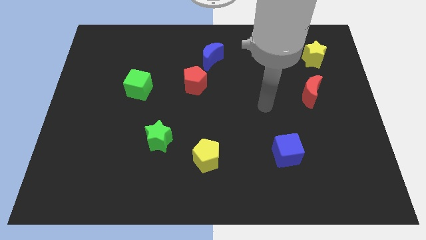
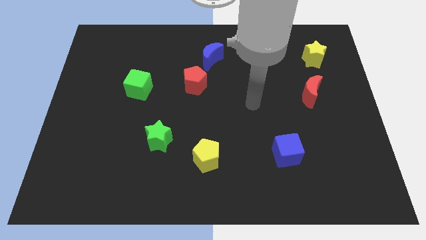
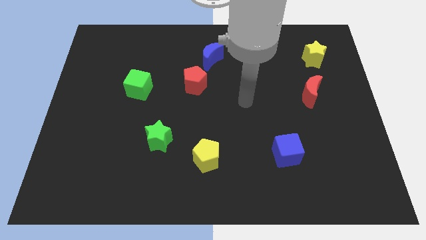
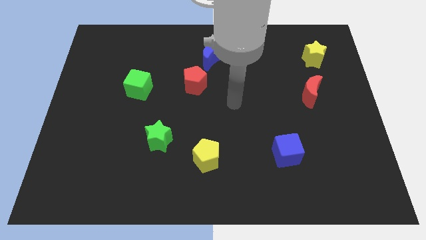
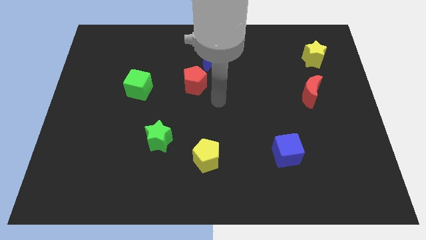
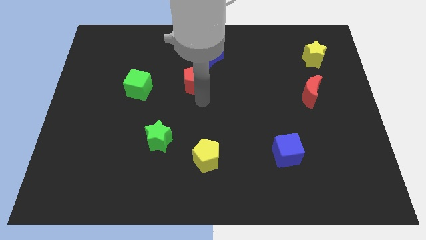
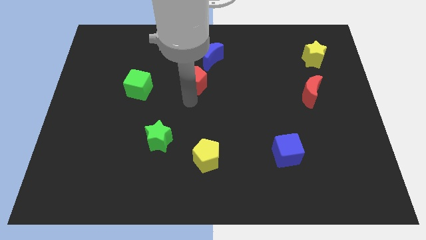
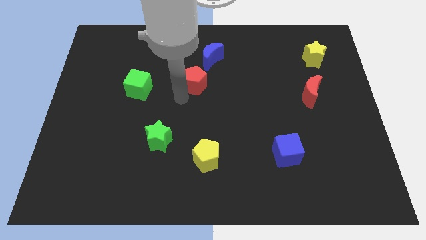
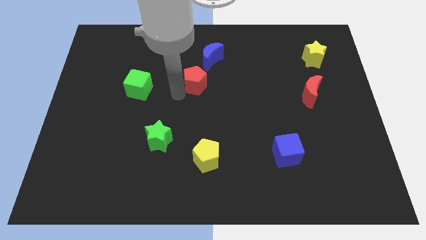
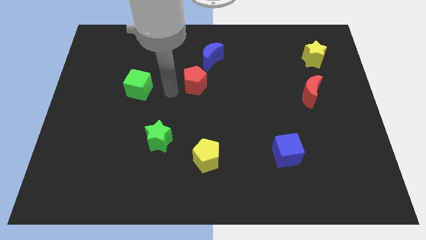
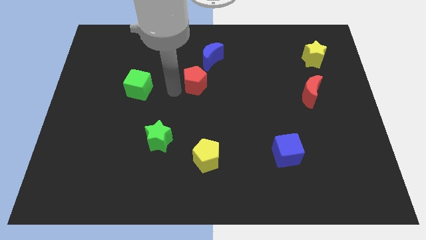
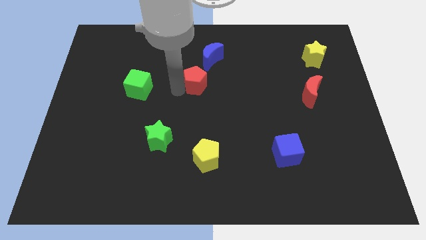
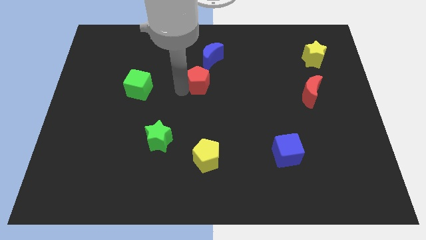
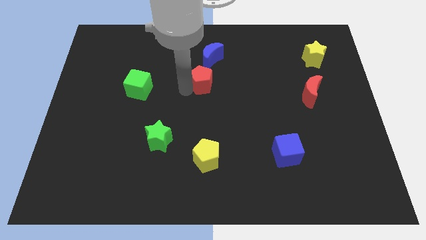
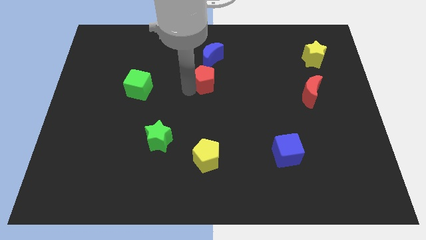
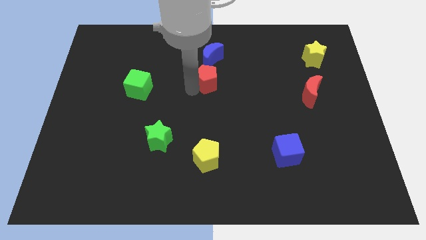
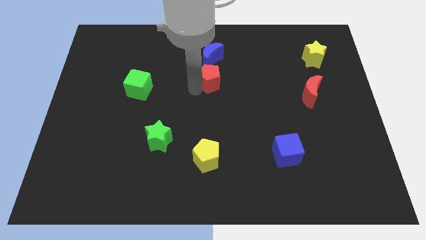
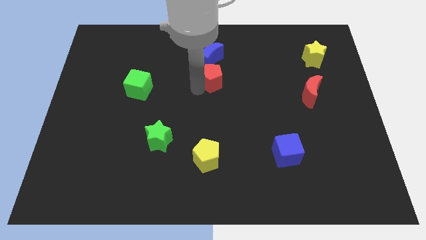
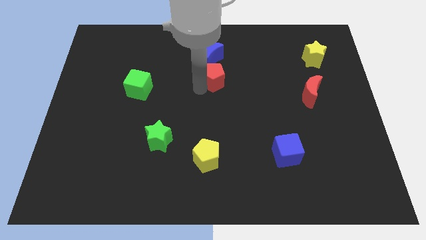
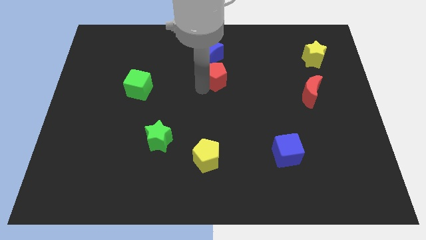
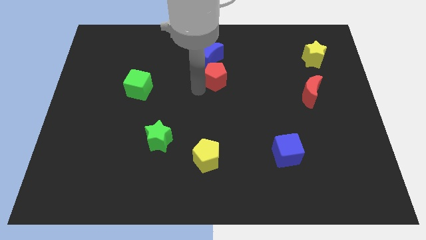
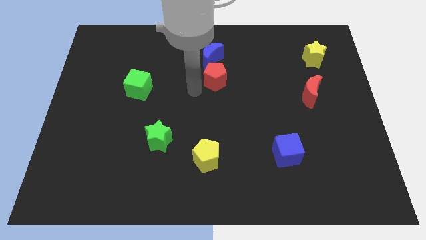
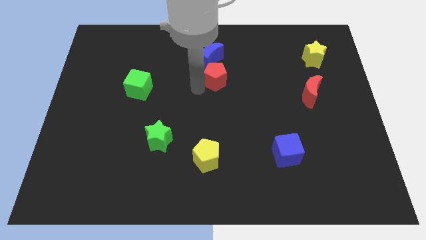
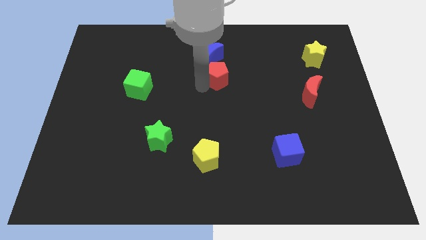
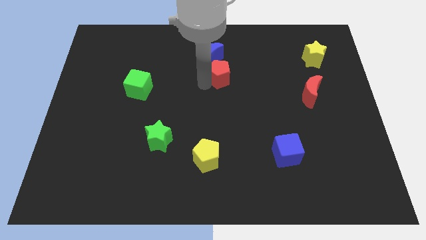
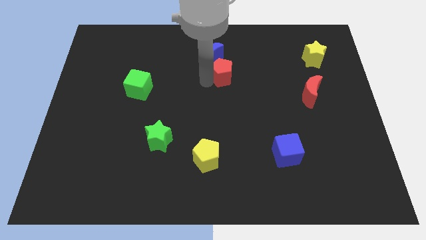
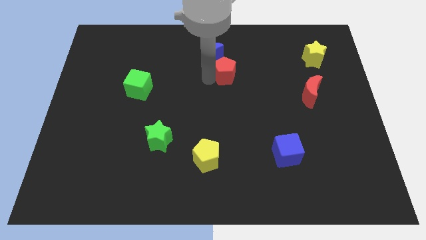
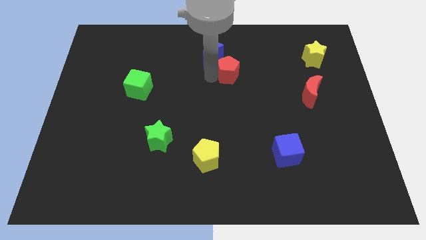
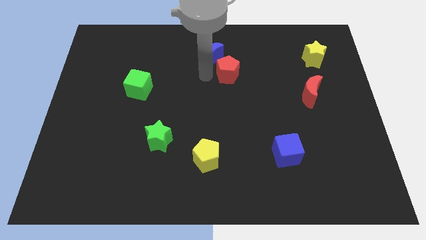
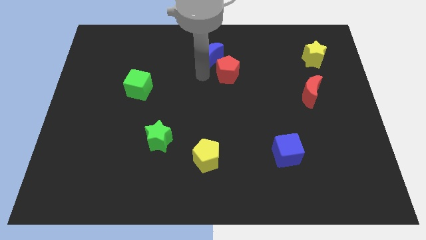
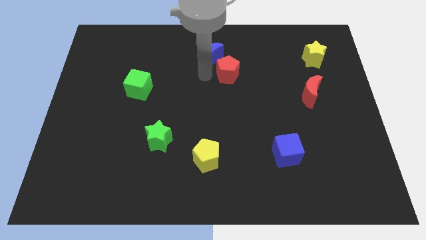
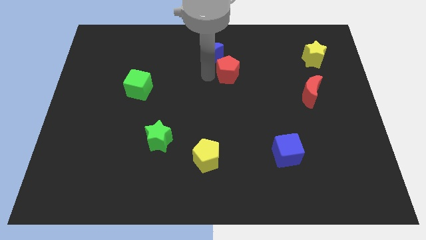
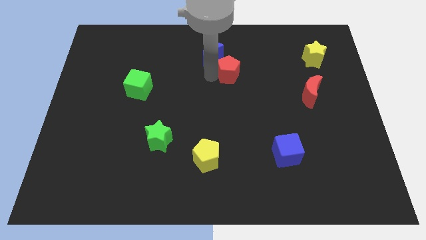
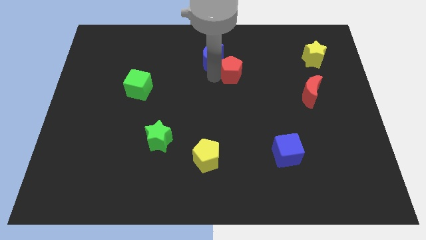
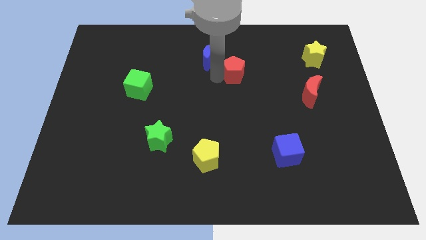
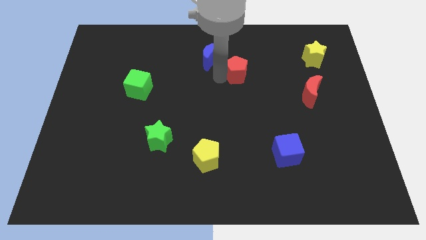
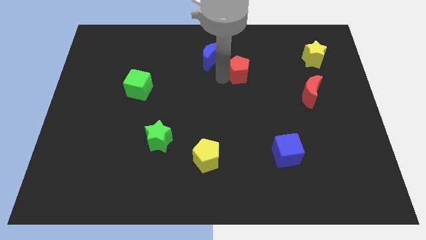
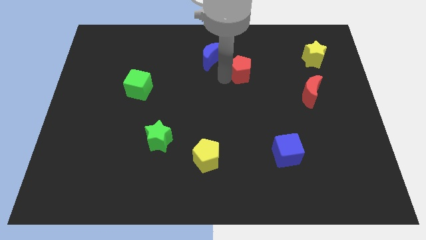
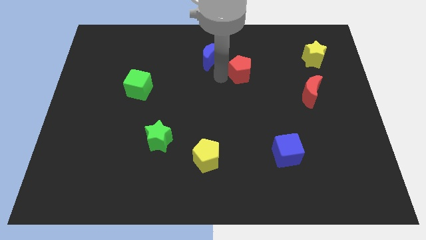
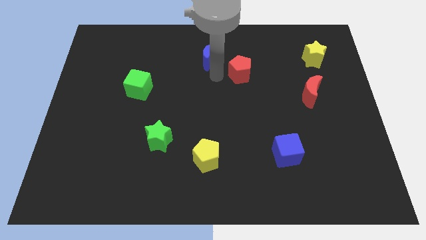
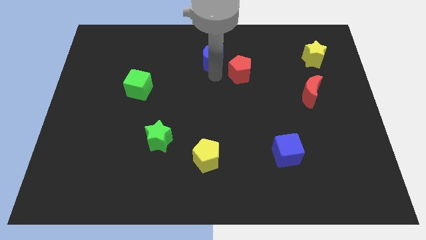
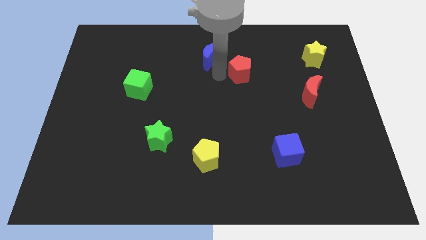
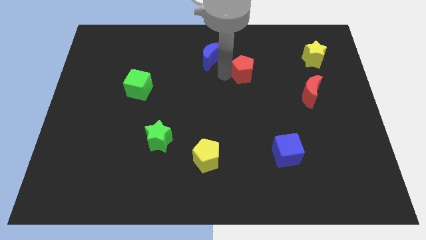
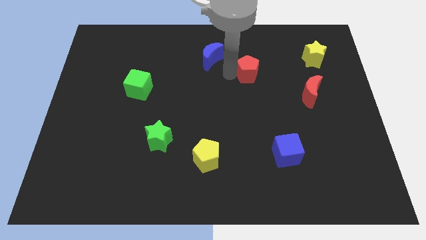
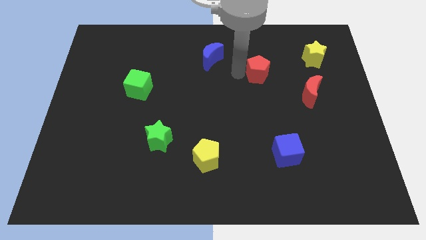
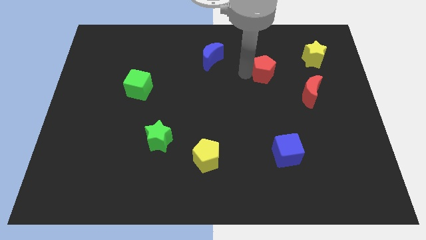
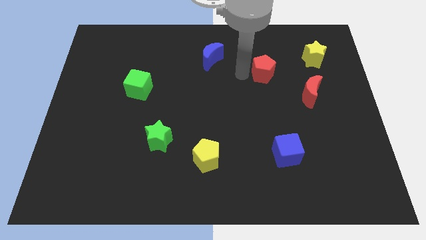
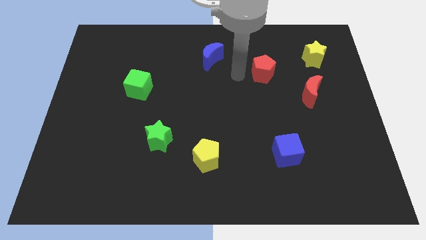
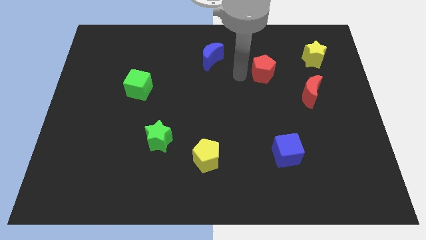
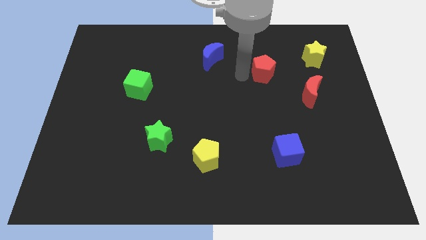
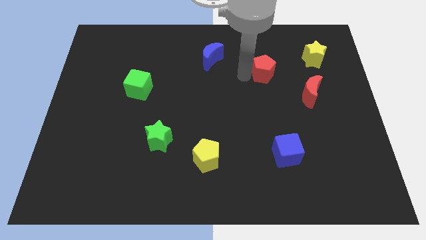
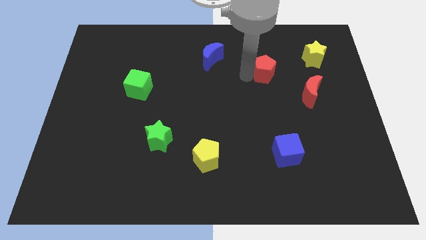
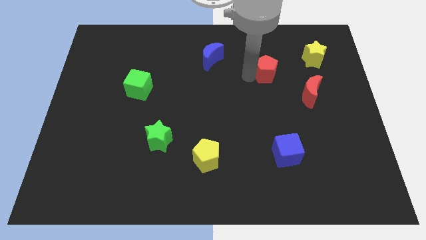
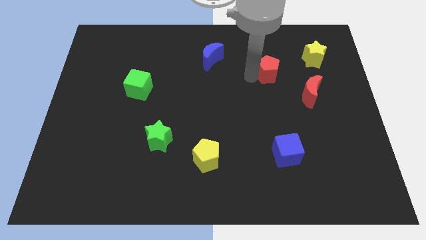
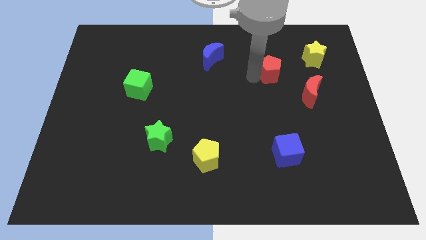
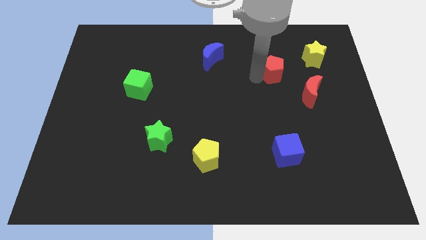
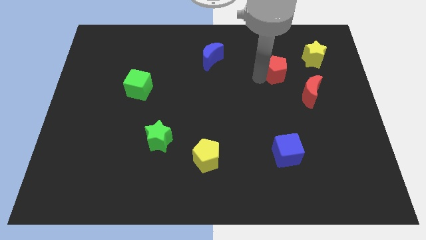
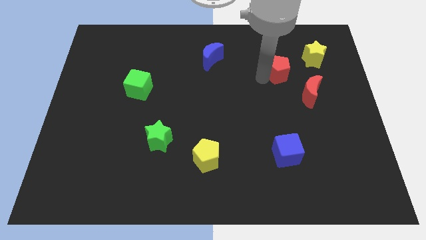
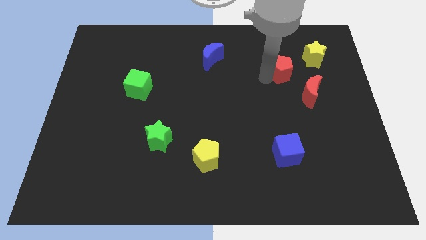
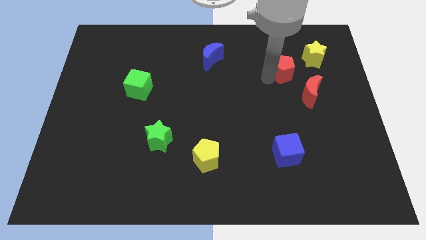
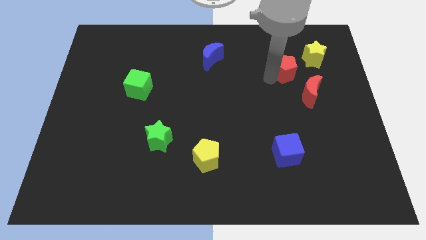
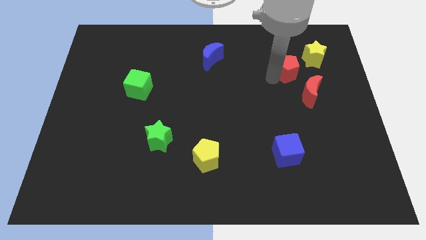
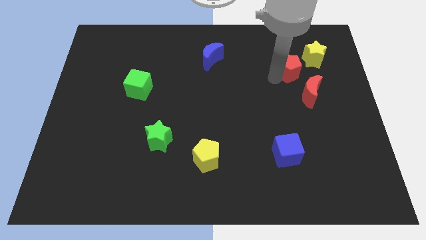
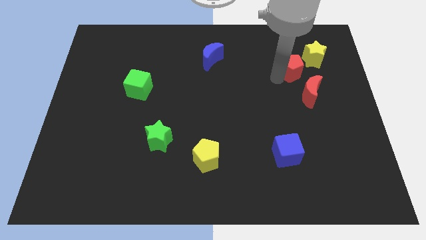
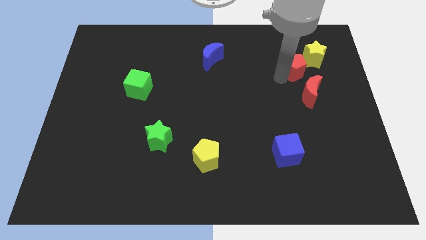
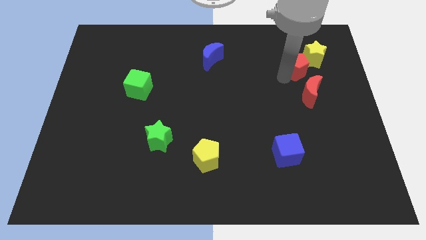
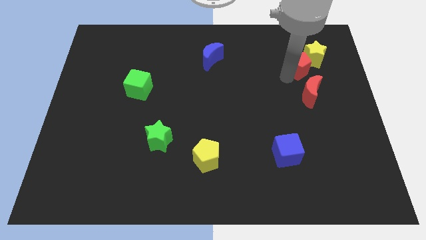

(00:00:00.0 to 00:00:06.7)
slide the red pentagon to the yellow star

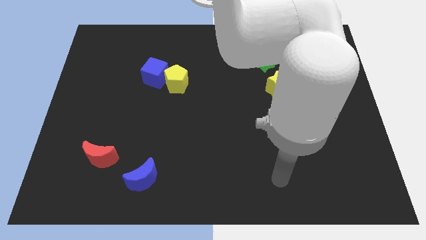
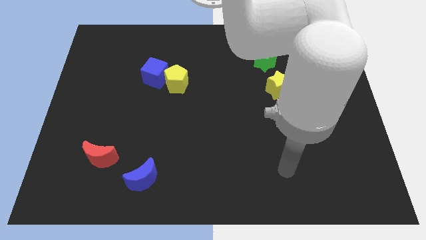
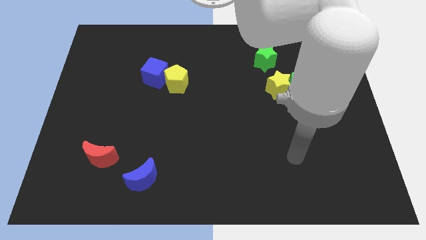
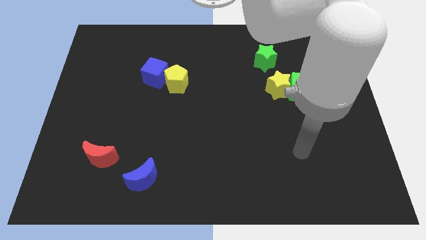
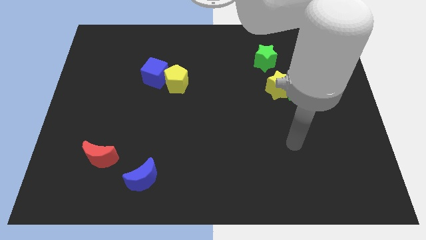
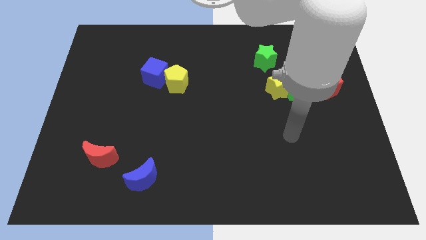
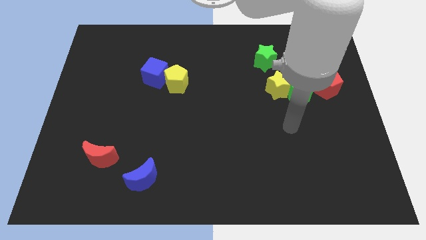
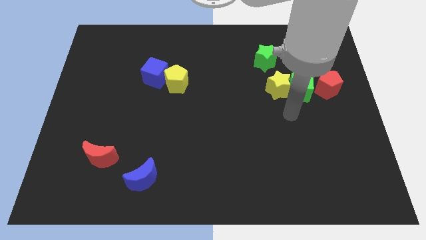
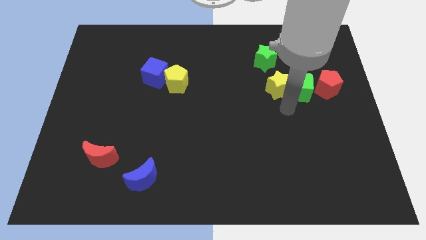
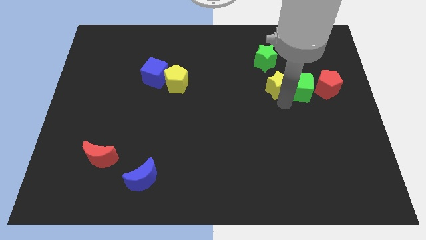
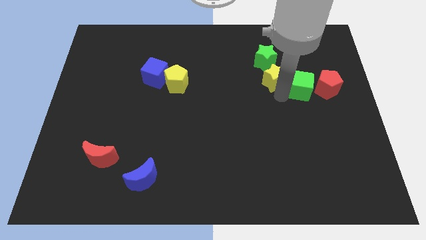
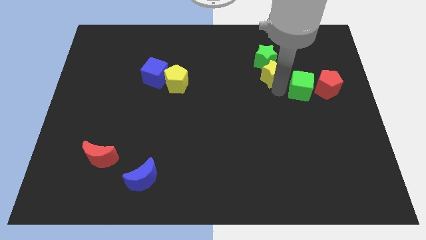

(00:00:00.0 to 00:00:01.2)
move the yellow star towards the green star
